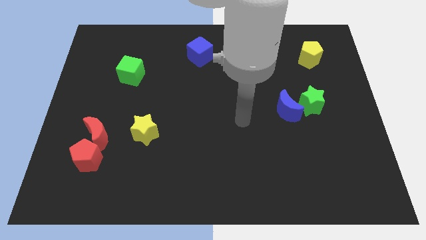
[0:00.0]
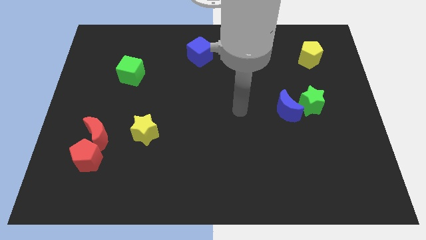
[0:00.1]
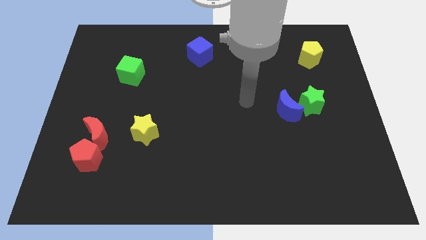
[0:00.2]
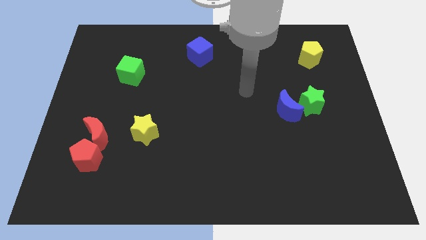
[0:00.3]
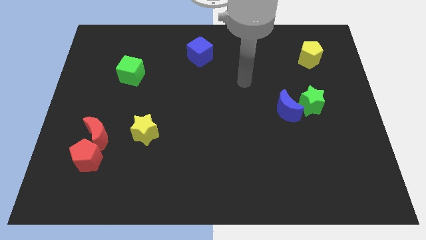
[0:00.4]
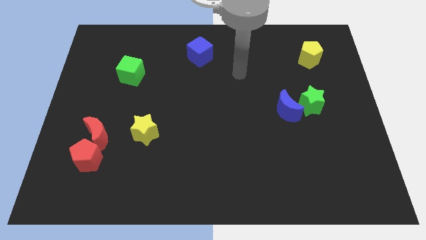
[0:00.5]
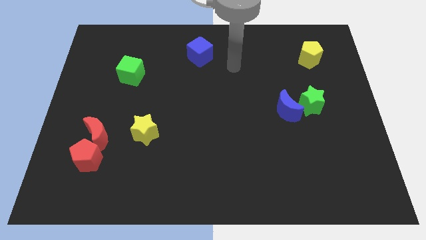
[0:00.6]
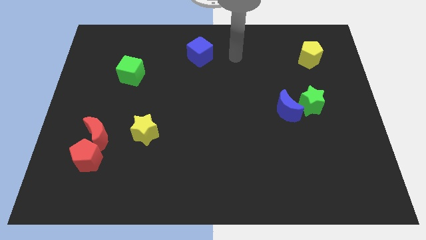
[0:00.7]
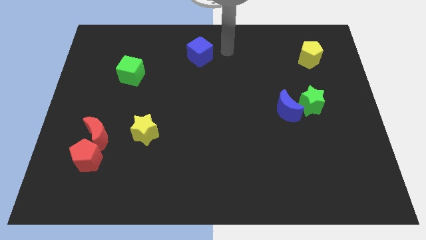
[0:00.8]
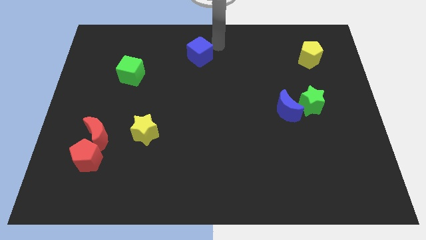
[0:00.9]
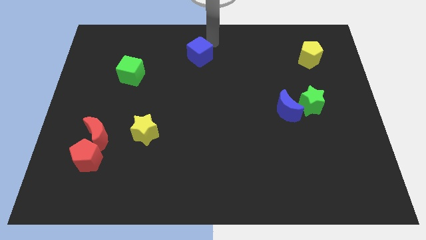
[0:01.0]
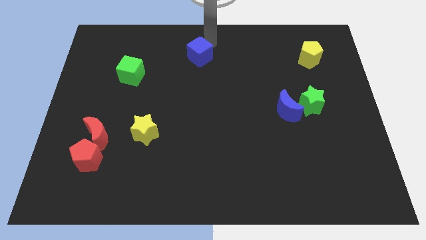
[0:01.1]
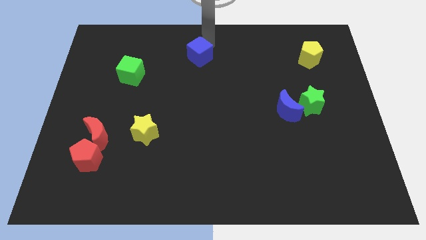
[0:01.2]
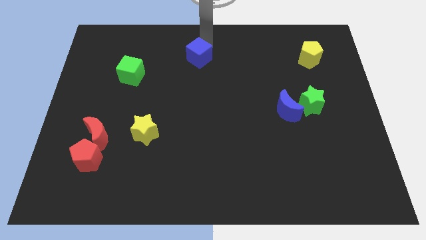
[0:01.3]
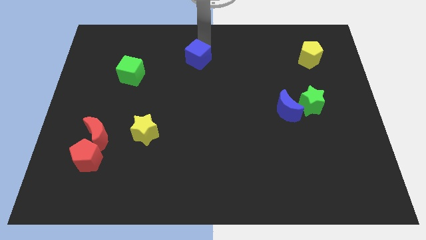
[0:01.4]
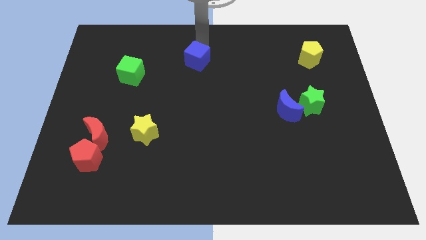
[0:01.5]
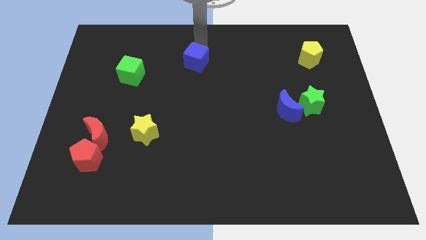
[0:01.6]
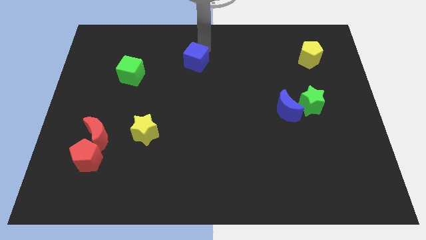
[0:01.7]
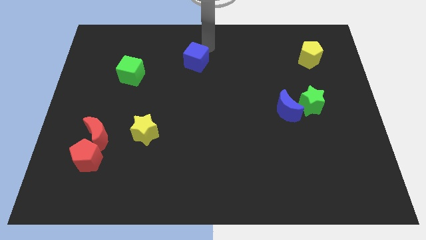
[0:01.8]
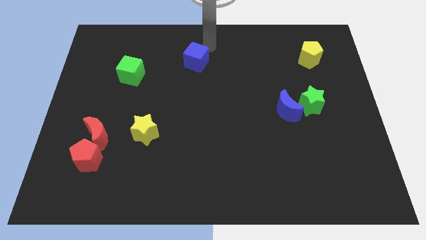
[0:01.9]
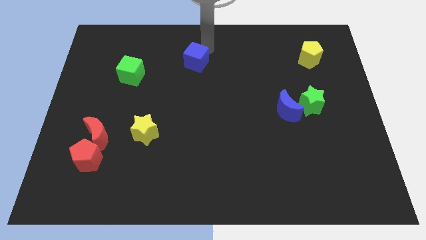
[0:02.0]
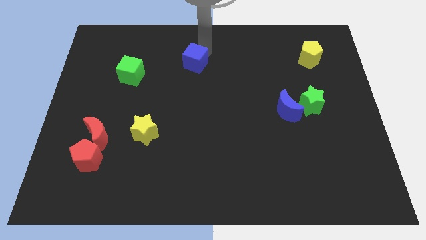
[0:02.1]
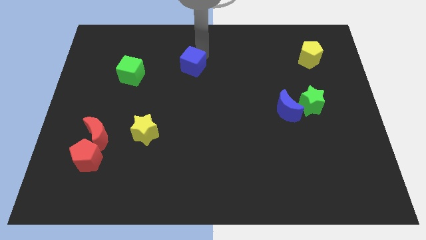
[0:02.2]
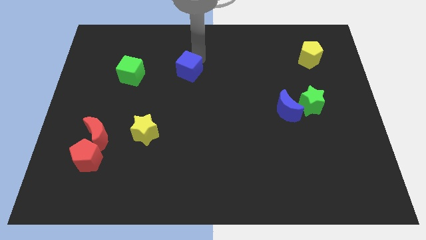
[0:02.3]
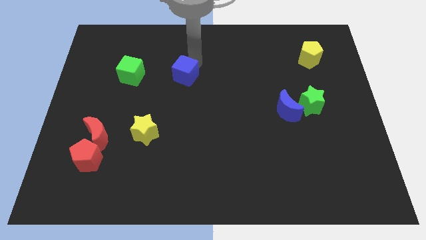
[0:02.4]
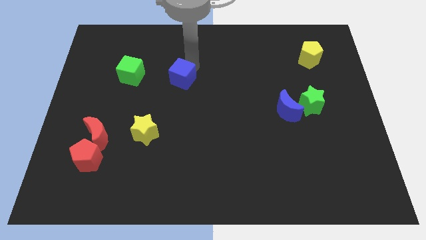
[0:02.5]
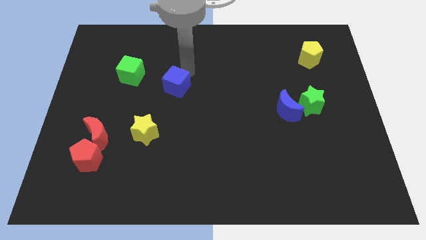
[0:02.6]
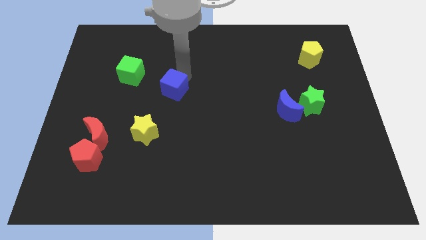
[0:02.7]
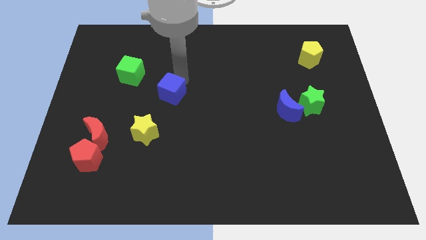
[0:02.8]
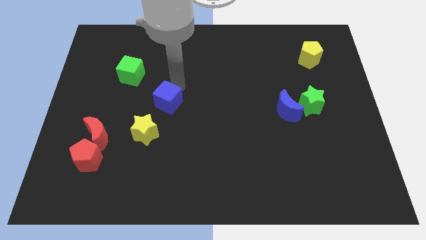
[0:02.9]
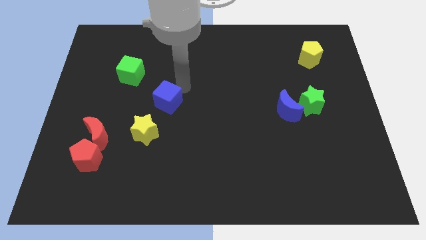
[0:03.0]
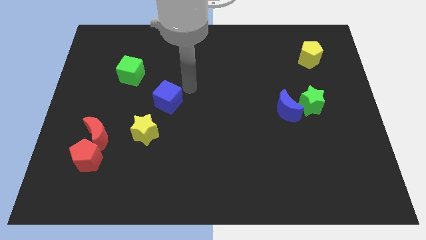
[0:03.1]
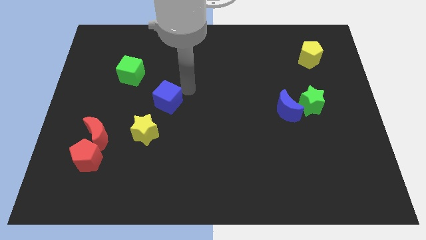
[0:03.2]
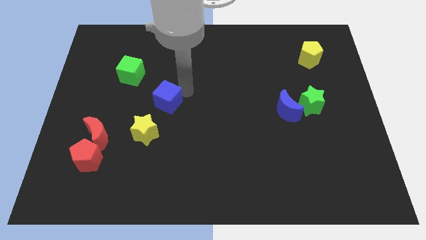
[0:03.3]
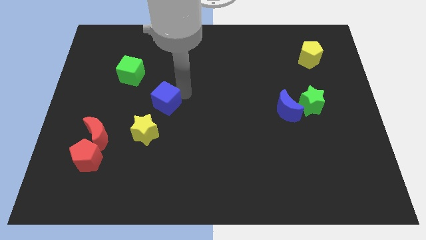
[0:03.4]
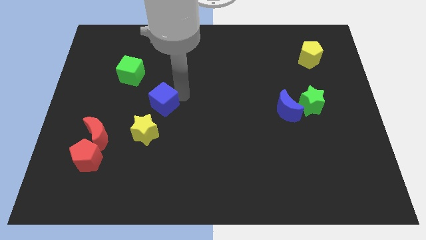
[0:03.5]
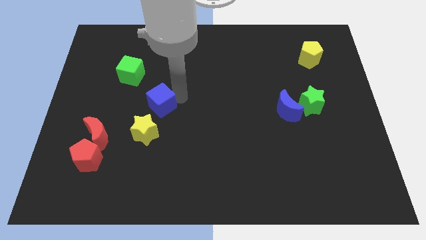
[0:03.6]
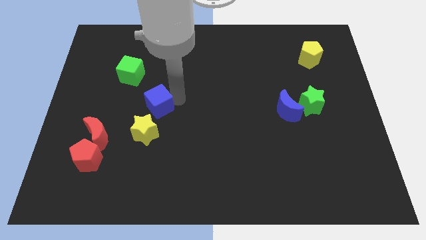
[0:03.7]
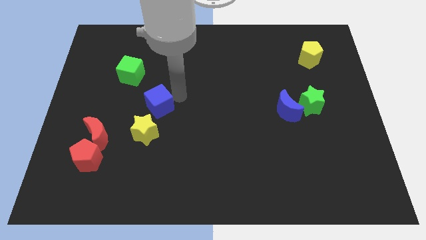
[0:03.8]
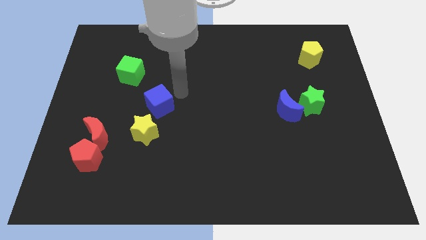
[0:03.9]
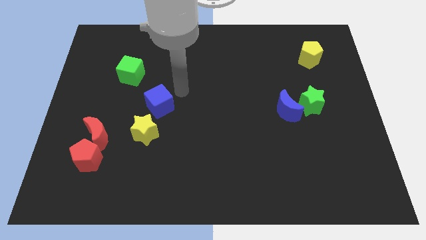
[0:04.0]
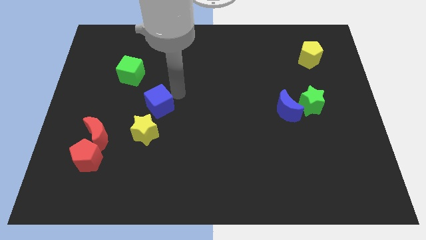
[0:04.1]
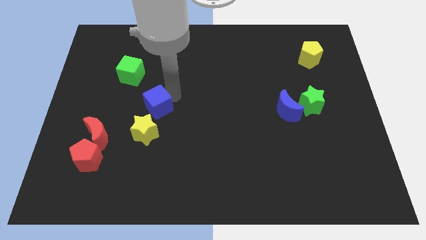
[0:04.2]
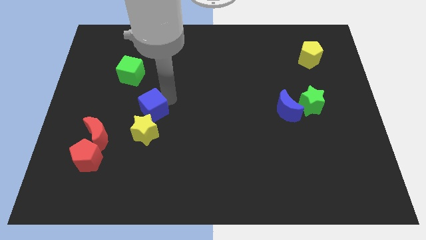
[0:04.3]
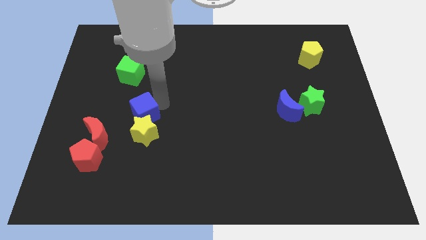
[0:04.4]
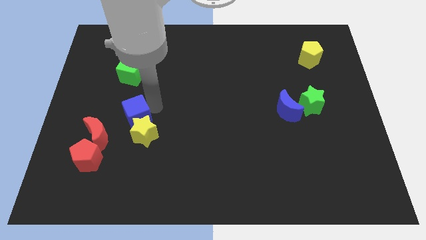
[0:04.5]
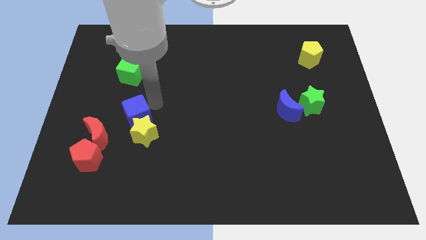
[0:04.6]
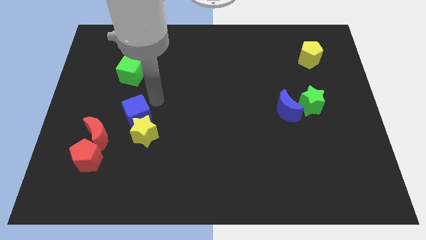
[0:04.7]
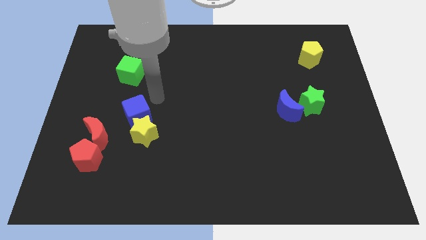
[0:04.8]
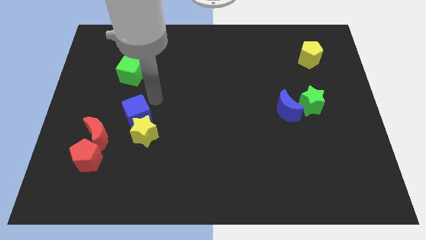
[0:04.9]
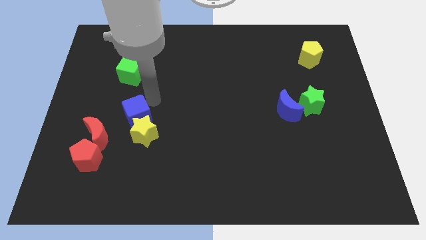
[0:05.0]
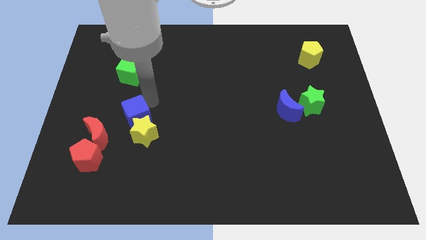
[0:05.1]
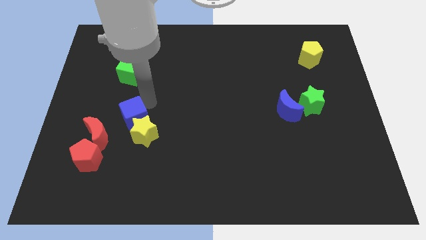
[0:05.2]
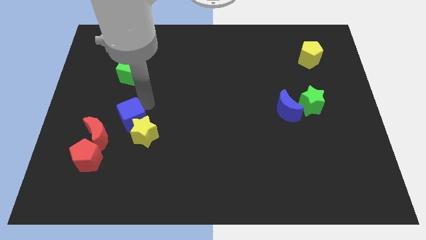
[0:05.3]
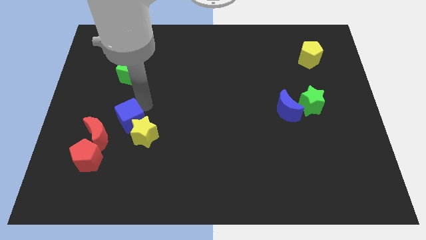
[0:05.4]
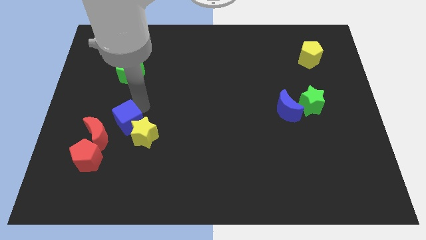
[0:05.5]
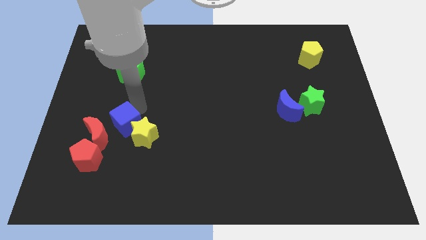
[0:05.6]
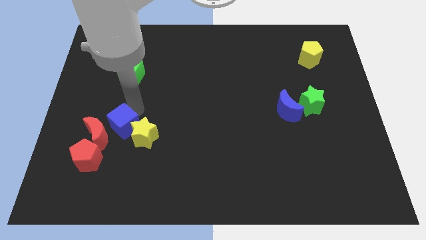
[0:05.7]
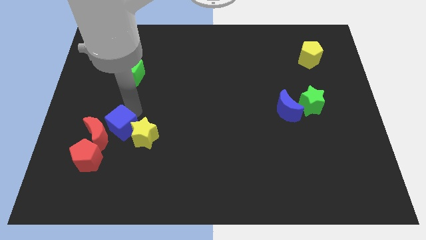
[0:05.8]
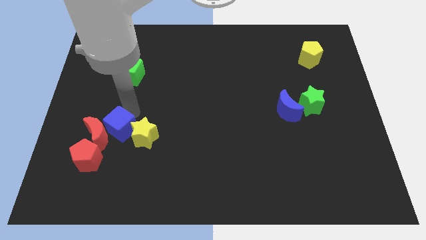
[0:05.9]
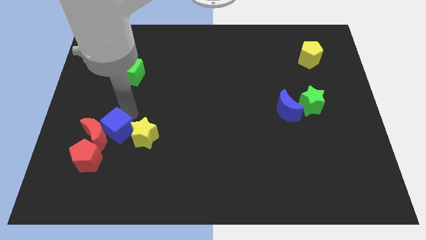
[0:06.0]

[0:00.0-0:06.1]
slide the blue cube to the bottom right side of the red moon

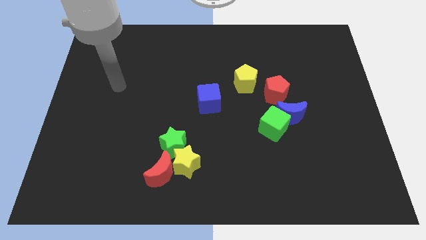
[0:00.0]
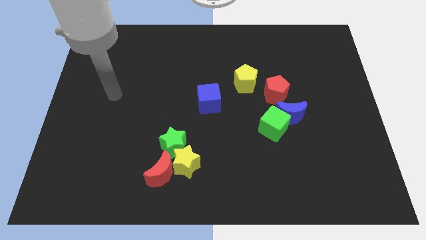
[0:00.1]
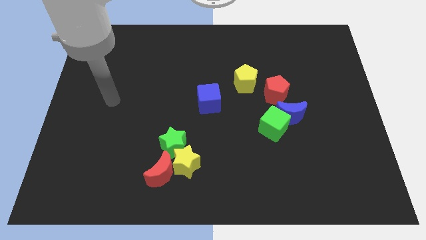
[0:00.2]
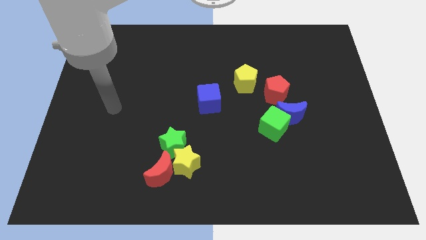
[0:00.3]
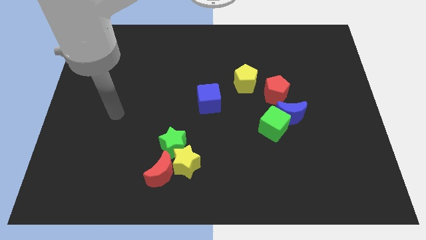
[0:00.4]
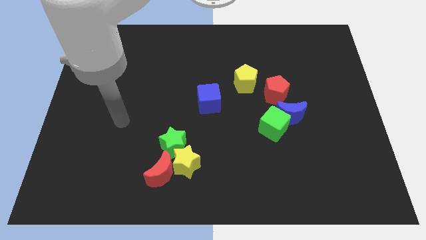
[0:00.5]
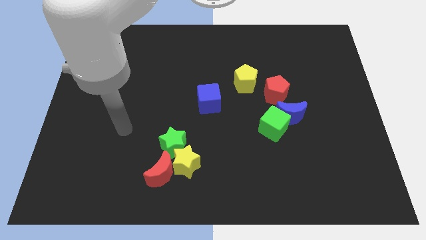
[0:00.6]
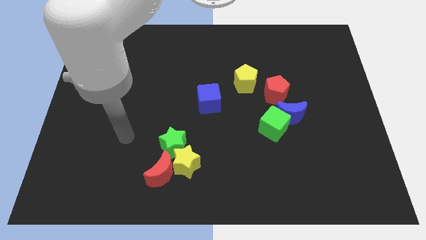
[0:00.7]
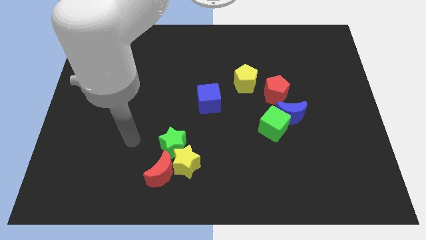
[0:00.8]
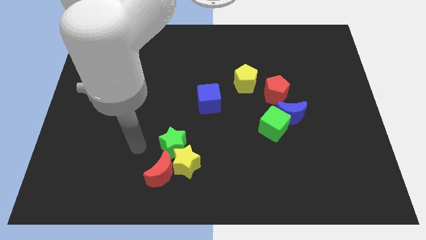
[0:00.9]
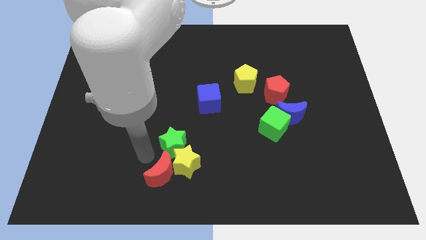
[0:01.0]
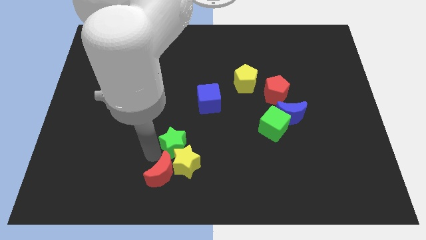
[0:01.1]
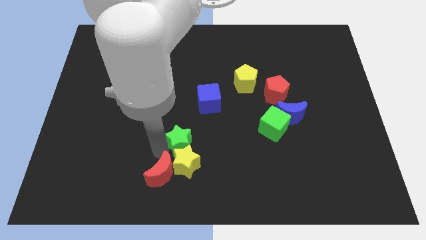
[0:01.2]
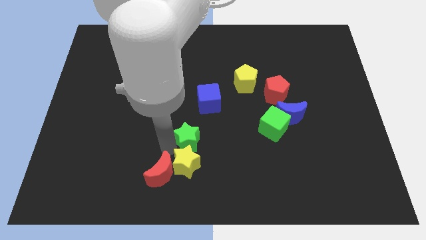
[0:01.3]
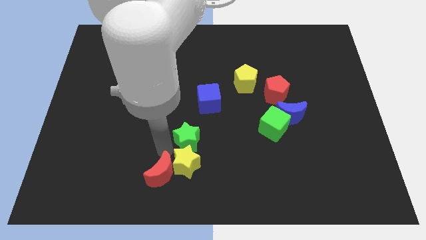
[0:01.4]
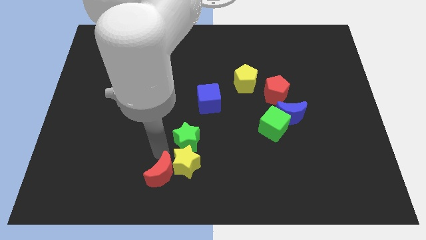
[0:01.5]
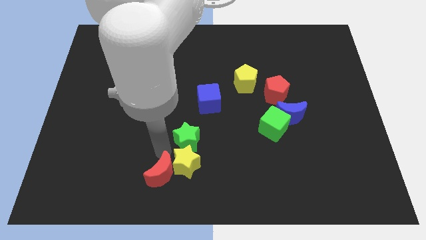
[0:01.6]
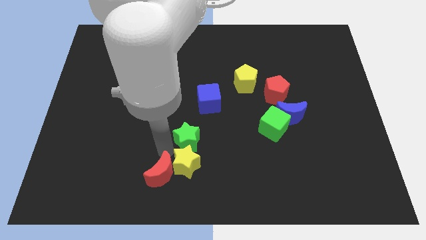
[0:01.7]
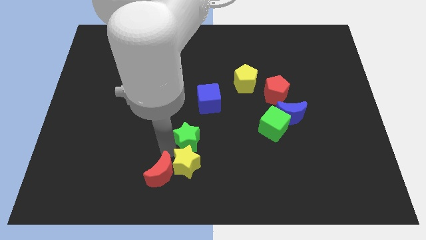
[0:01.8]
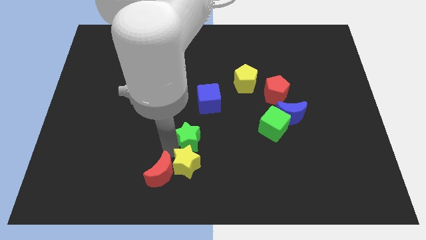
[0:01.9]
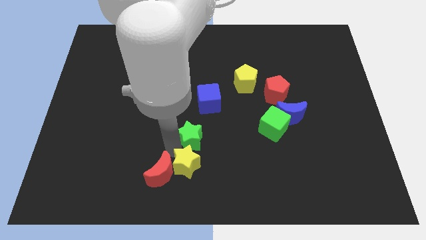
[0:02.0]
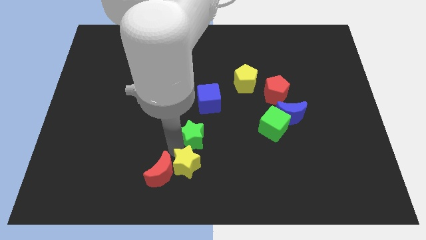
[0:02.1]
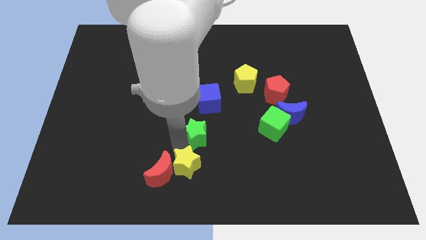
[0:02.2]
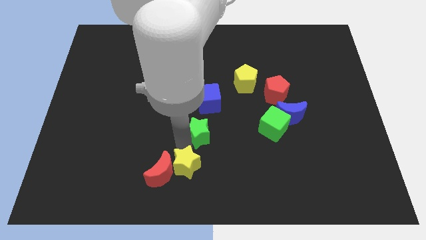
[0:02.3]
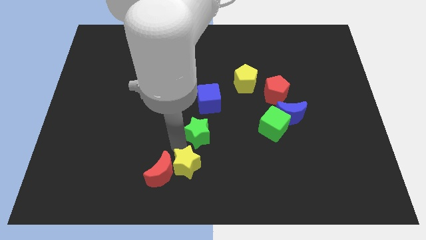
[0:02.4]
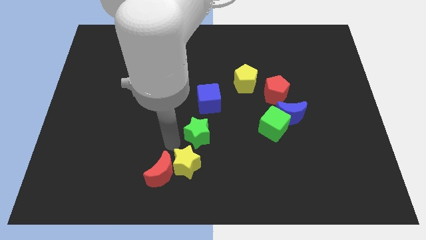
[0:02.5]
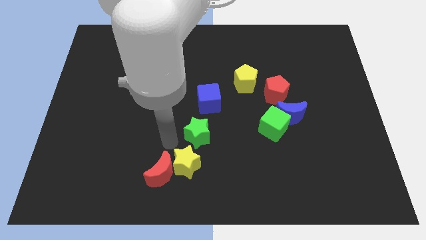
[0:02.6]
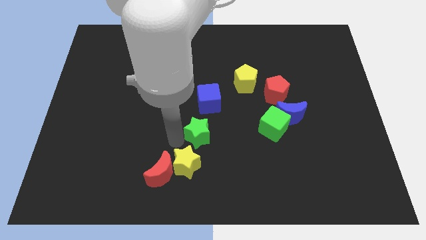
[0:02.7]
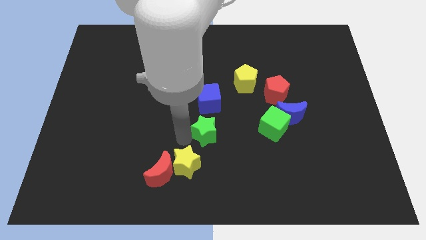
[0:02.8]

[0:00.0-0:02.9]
move the green star to the left side of the green cube
